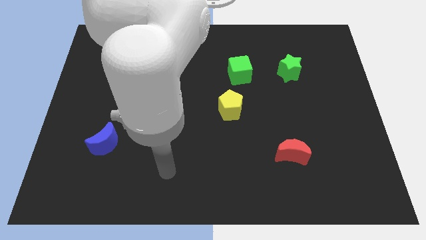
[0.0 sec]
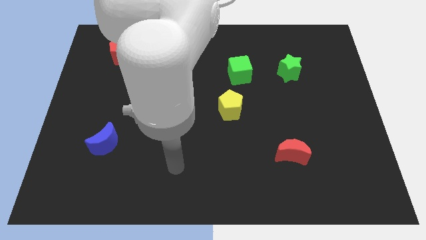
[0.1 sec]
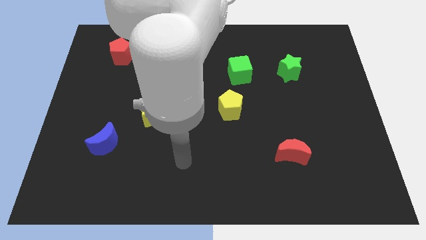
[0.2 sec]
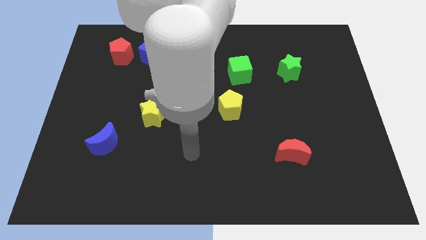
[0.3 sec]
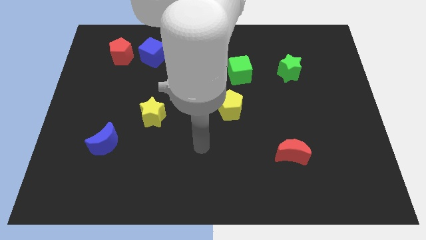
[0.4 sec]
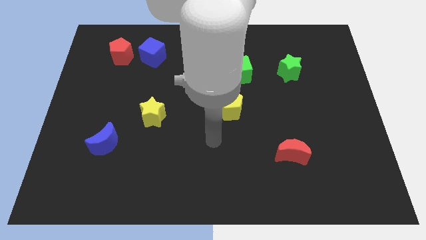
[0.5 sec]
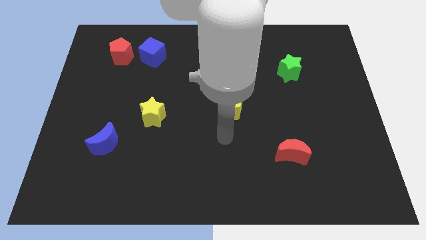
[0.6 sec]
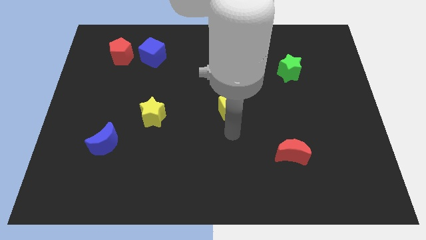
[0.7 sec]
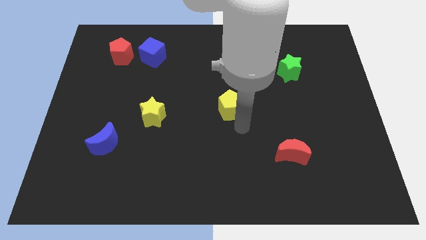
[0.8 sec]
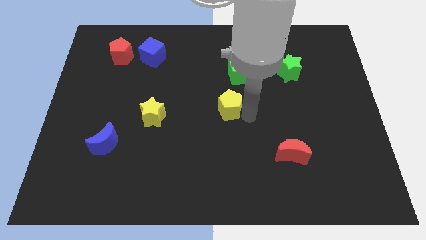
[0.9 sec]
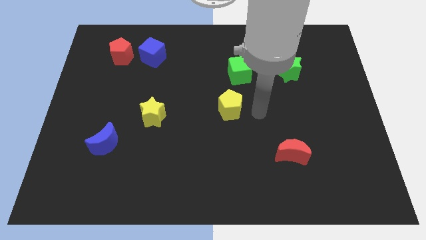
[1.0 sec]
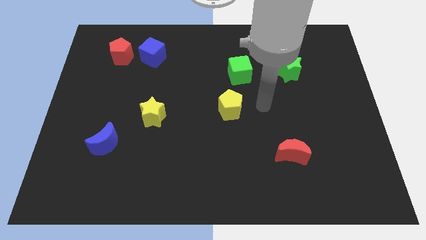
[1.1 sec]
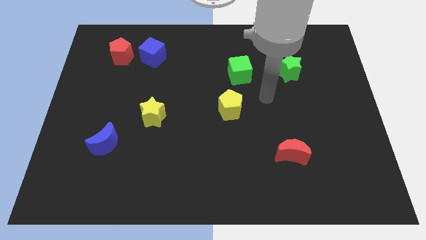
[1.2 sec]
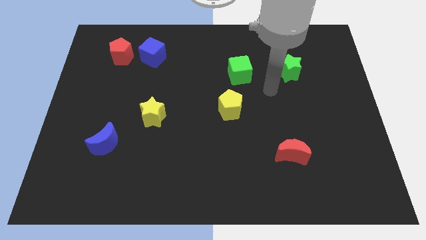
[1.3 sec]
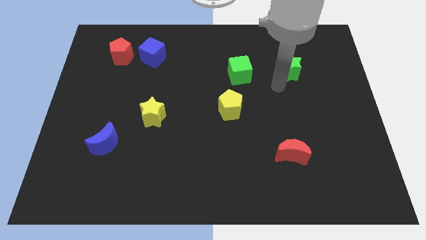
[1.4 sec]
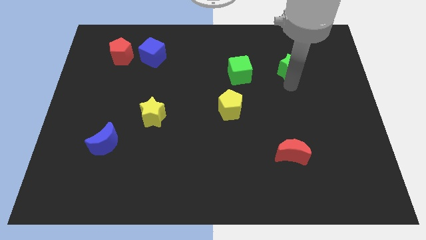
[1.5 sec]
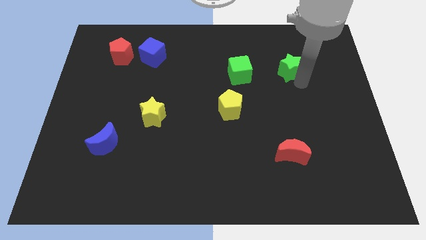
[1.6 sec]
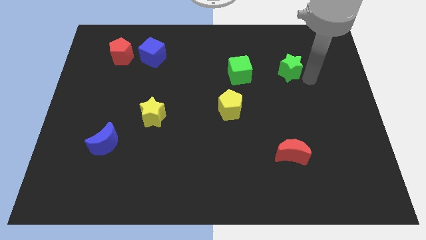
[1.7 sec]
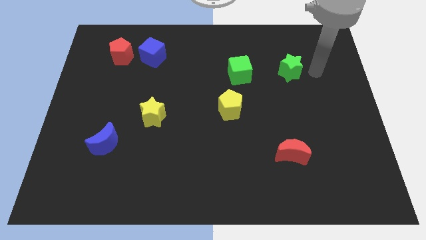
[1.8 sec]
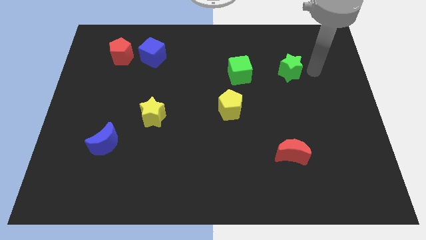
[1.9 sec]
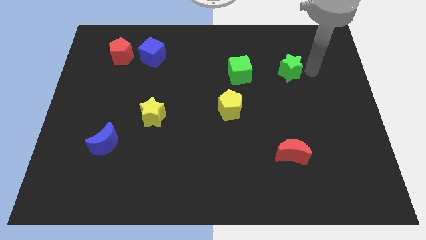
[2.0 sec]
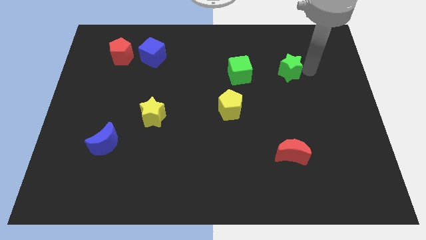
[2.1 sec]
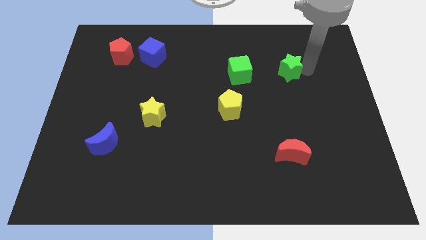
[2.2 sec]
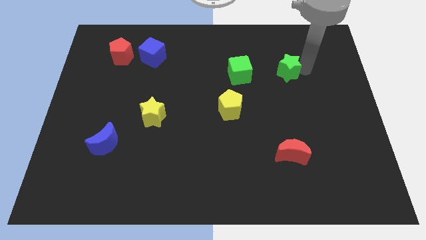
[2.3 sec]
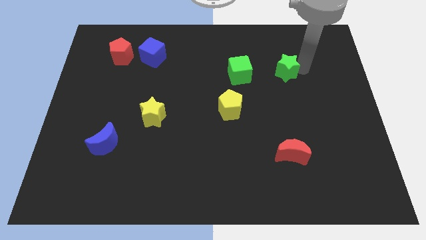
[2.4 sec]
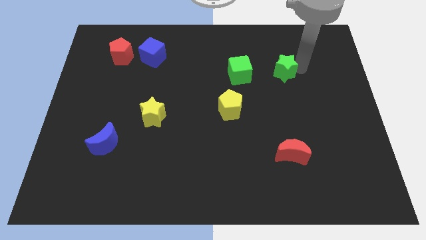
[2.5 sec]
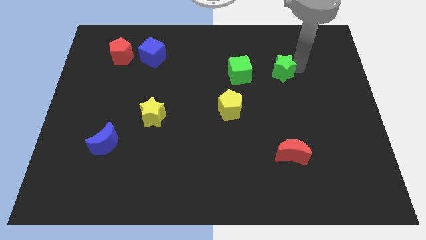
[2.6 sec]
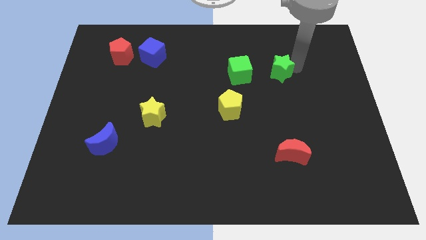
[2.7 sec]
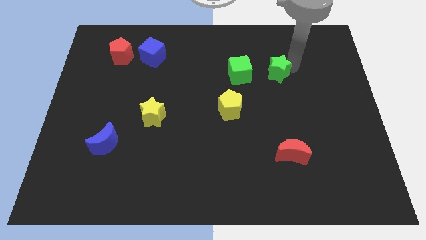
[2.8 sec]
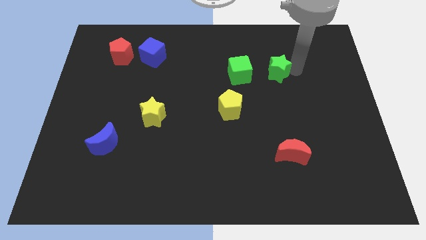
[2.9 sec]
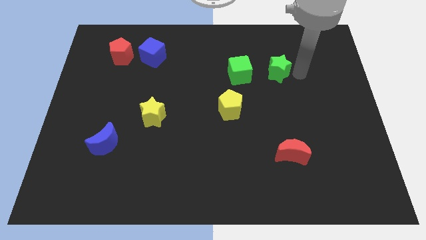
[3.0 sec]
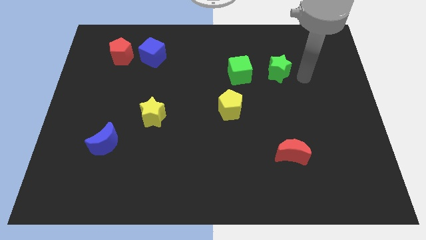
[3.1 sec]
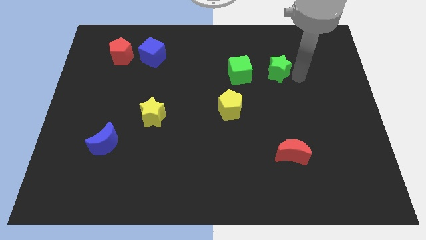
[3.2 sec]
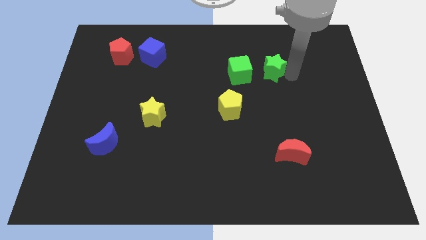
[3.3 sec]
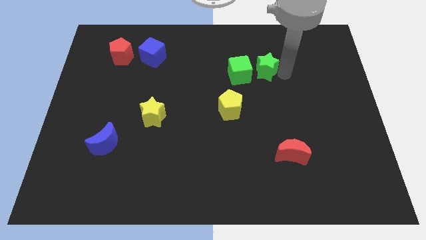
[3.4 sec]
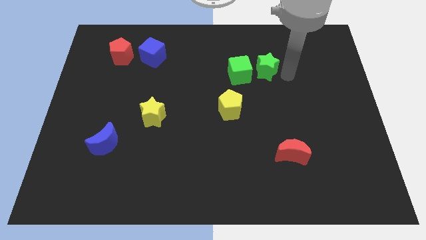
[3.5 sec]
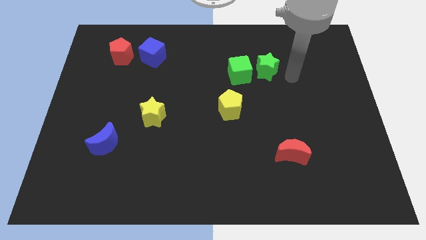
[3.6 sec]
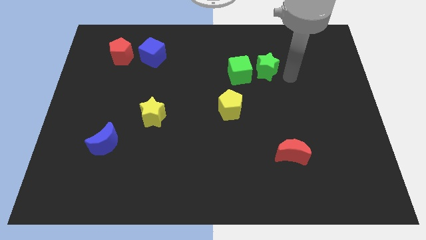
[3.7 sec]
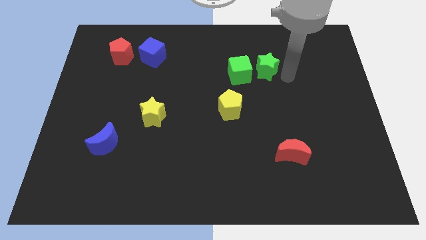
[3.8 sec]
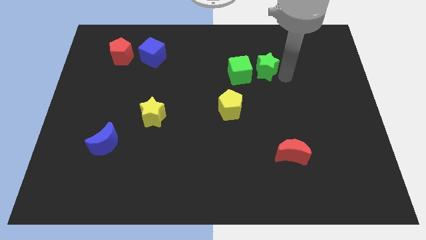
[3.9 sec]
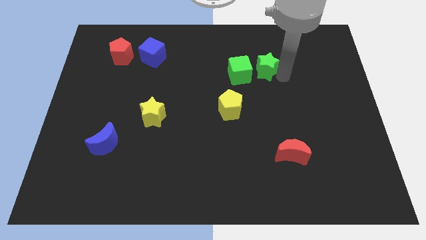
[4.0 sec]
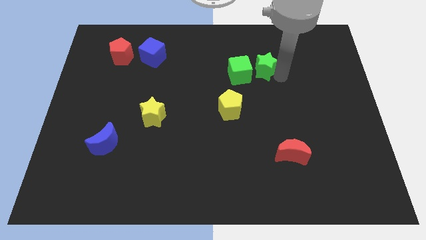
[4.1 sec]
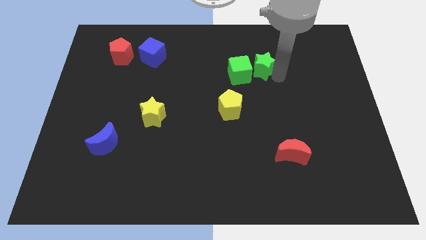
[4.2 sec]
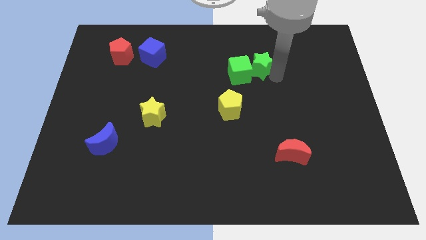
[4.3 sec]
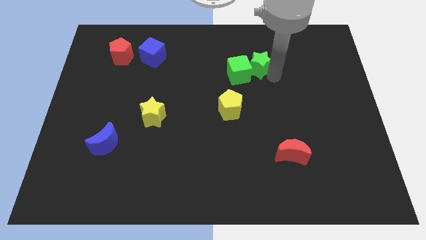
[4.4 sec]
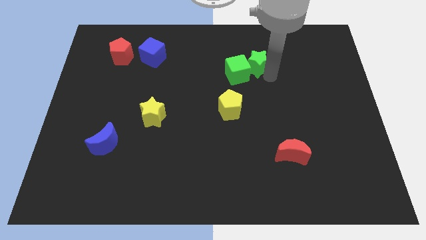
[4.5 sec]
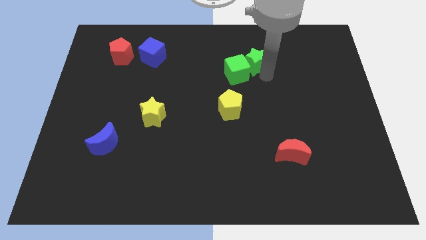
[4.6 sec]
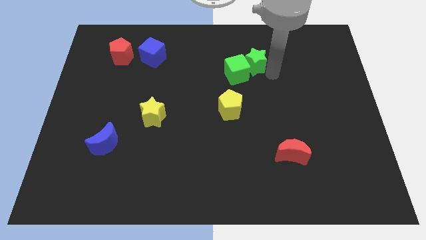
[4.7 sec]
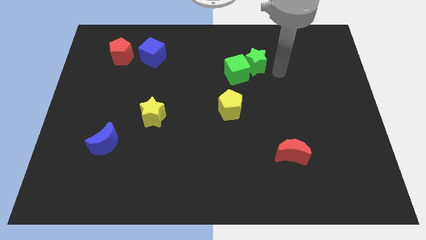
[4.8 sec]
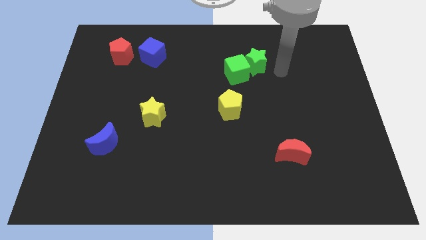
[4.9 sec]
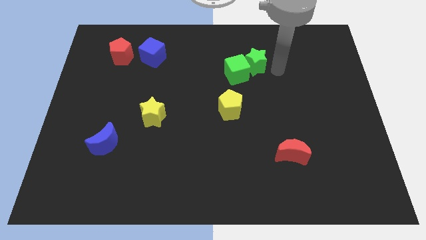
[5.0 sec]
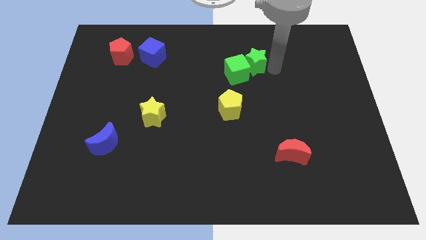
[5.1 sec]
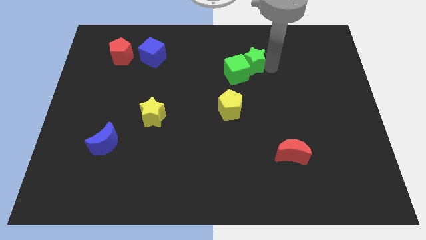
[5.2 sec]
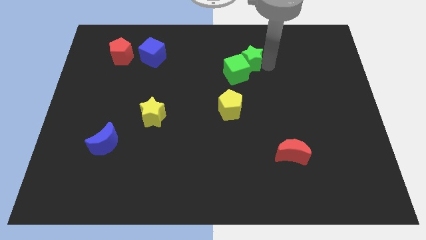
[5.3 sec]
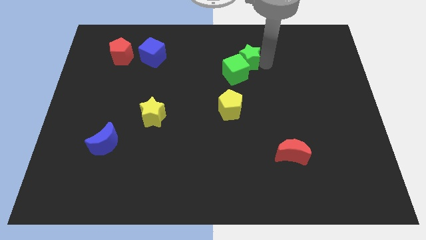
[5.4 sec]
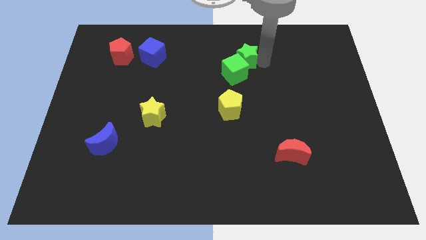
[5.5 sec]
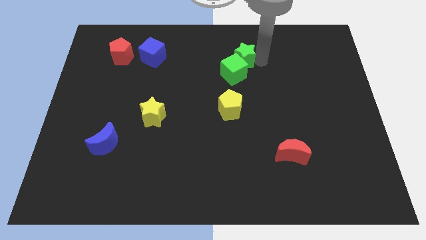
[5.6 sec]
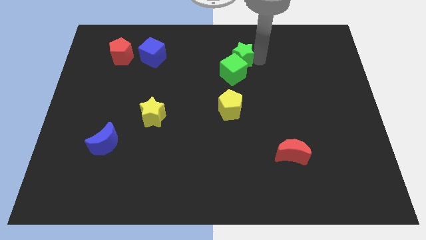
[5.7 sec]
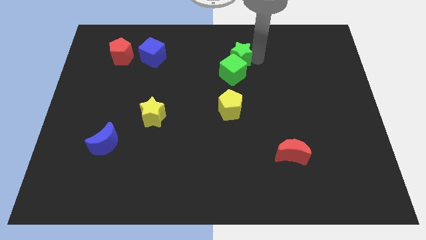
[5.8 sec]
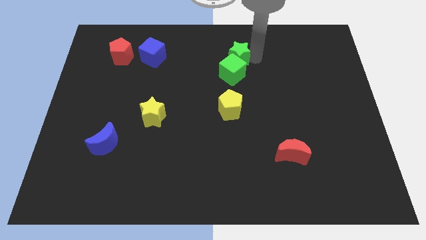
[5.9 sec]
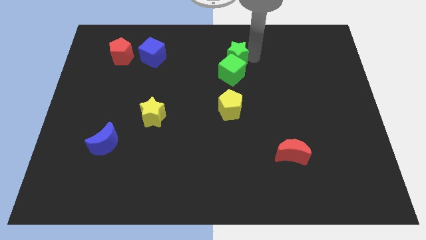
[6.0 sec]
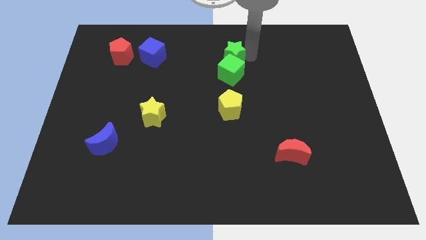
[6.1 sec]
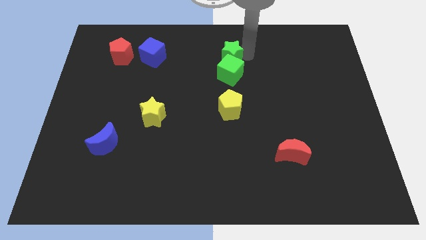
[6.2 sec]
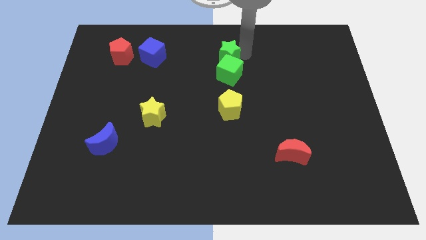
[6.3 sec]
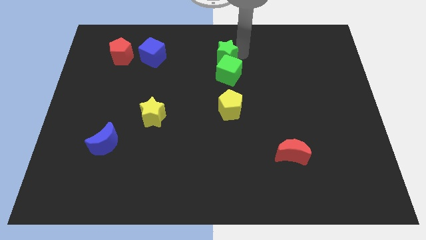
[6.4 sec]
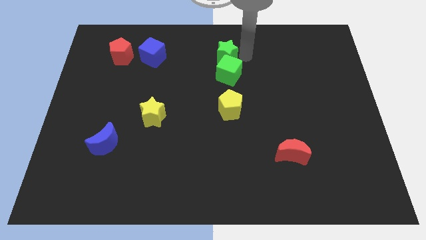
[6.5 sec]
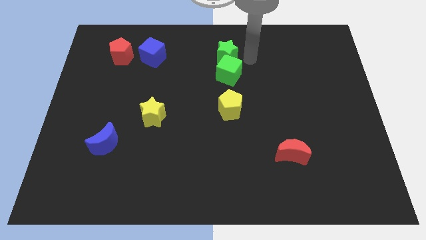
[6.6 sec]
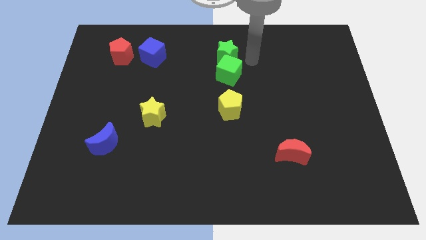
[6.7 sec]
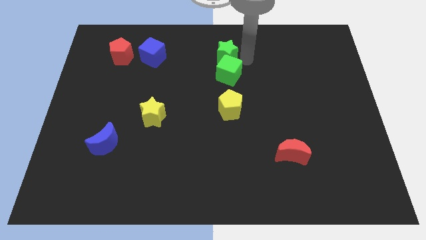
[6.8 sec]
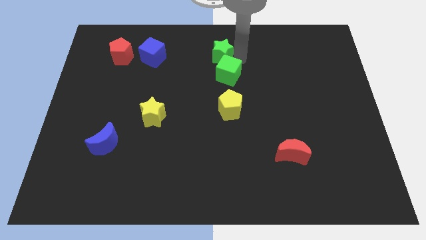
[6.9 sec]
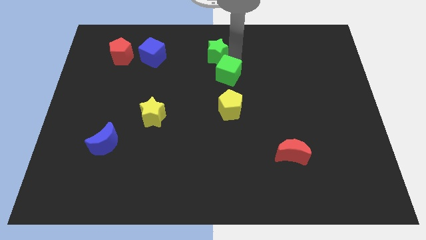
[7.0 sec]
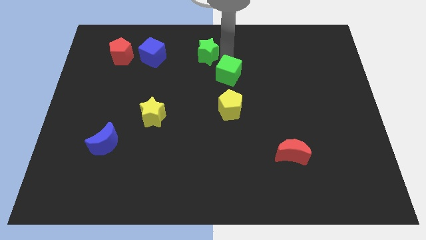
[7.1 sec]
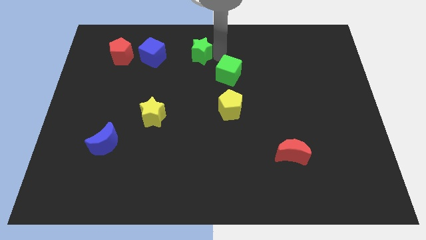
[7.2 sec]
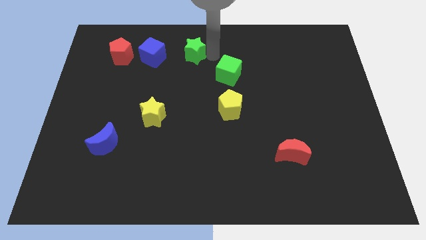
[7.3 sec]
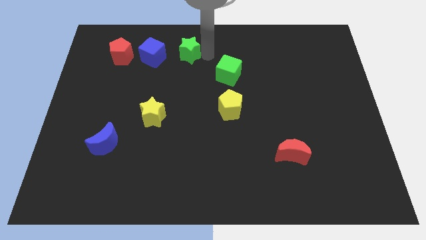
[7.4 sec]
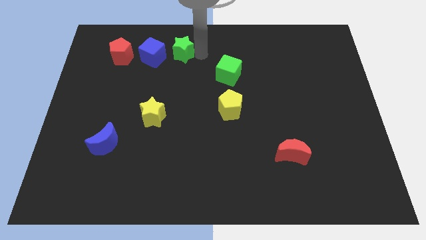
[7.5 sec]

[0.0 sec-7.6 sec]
move the green star right of the red pentagon
